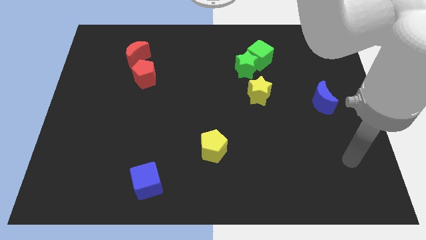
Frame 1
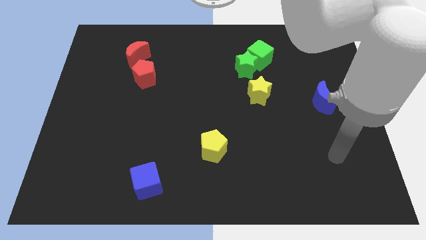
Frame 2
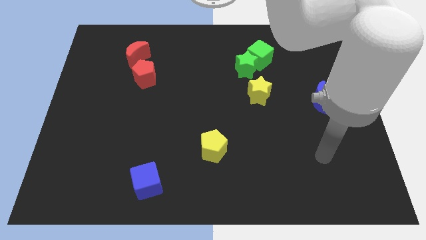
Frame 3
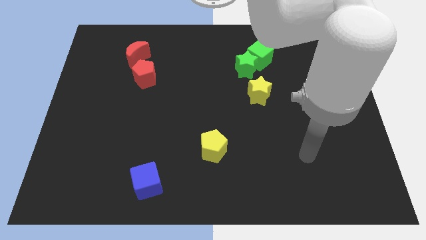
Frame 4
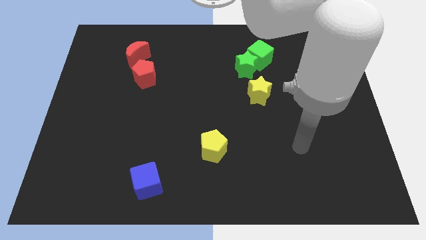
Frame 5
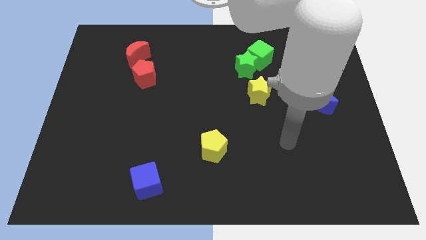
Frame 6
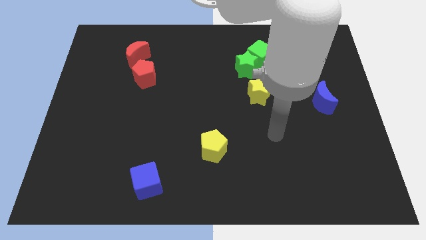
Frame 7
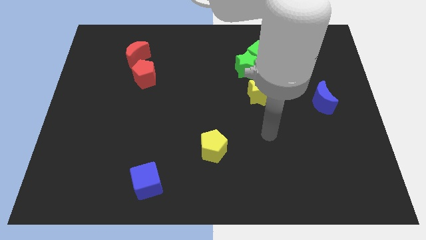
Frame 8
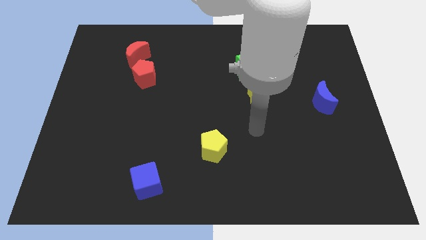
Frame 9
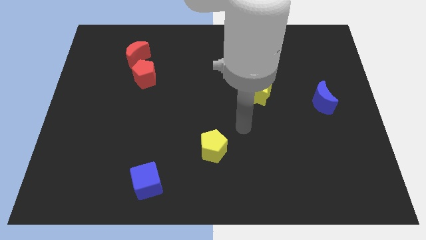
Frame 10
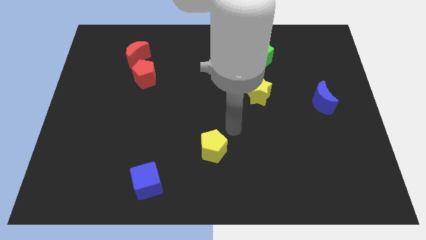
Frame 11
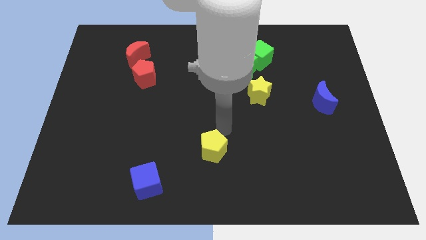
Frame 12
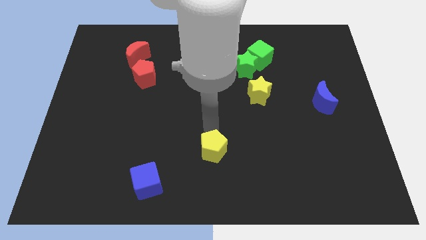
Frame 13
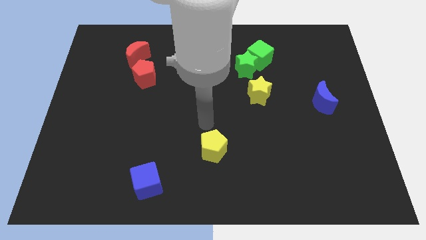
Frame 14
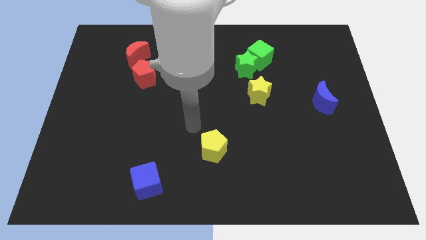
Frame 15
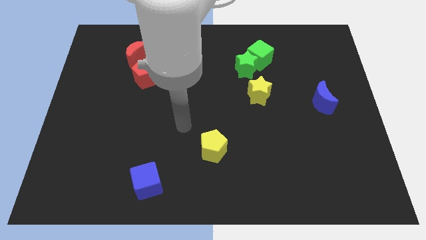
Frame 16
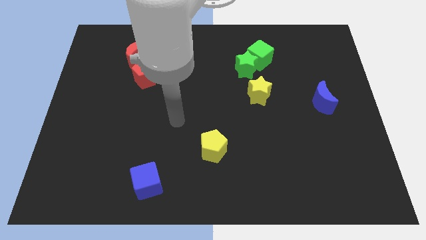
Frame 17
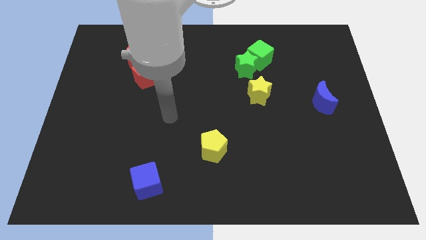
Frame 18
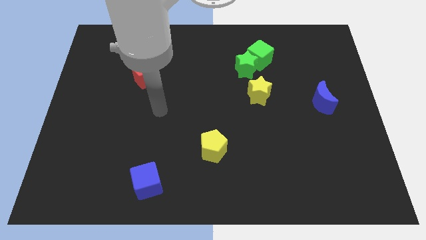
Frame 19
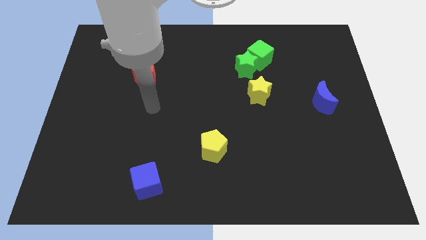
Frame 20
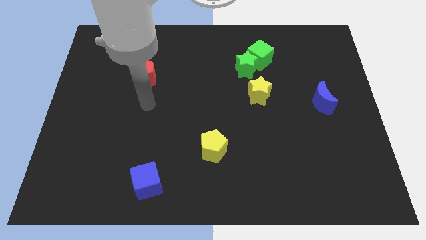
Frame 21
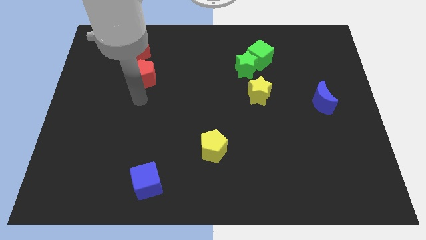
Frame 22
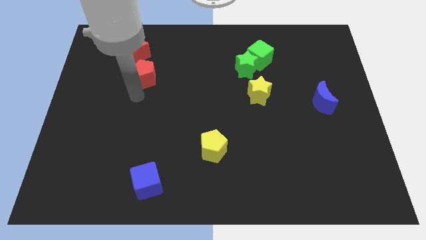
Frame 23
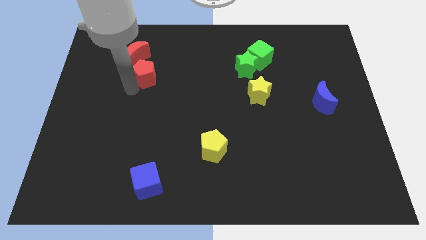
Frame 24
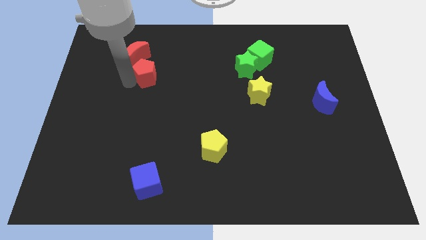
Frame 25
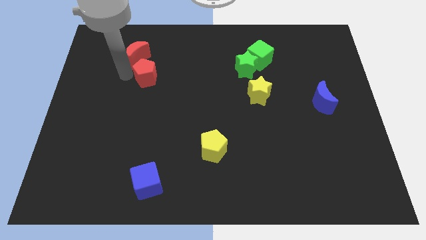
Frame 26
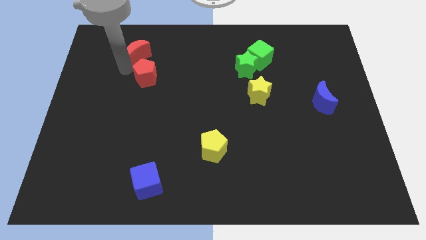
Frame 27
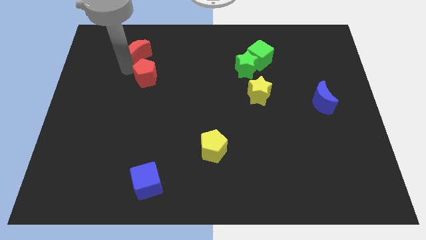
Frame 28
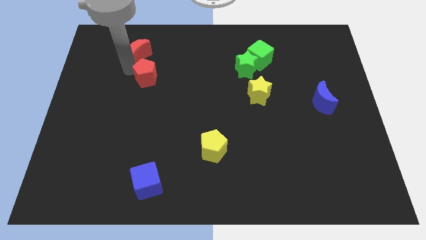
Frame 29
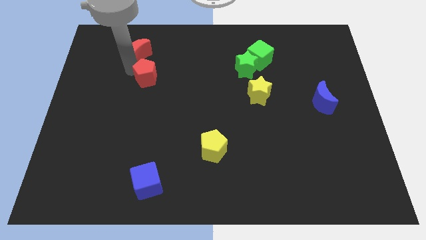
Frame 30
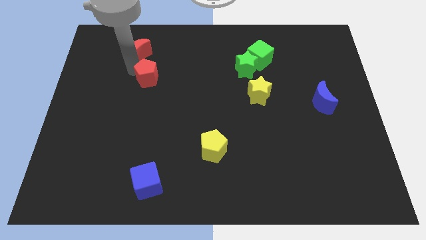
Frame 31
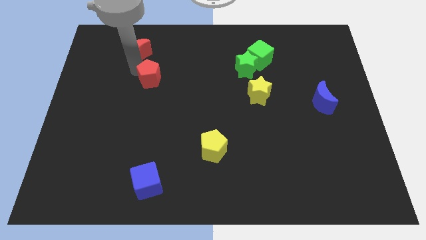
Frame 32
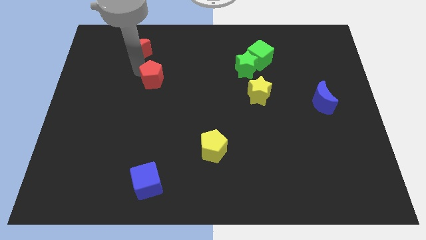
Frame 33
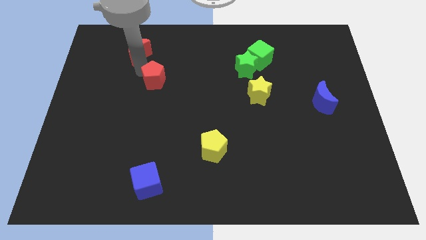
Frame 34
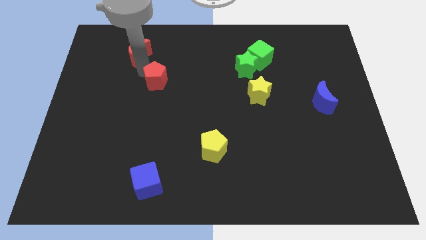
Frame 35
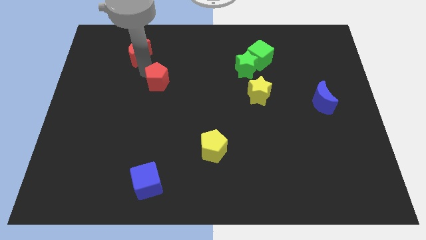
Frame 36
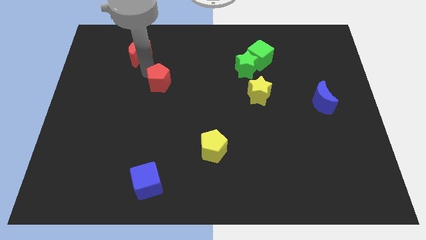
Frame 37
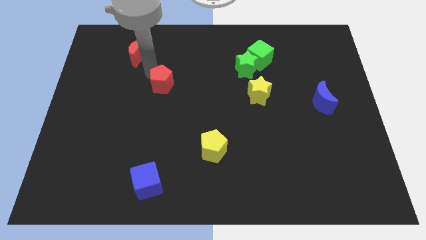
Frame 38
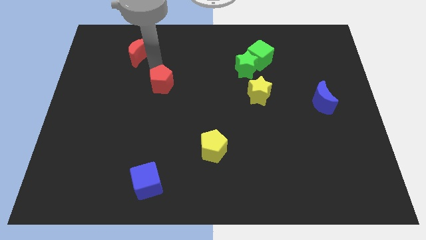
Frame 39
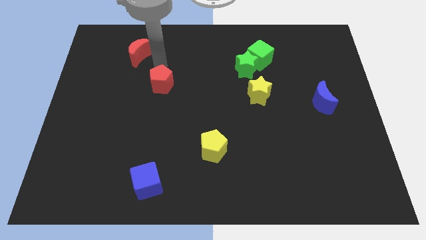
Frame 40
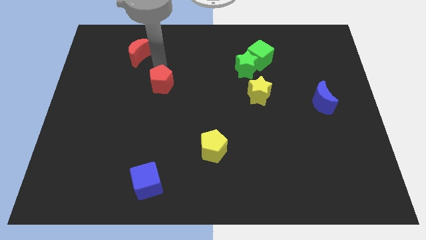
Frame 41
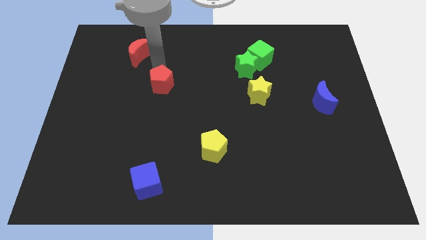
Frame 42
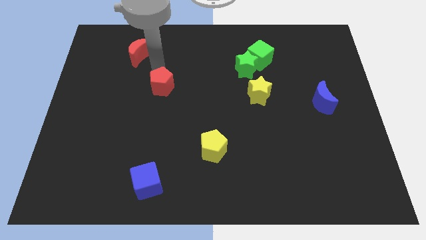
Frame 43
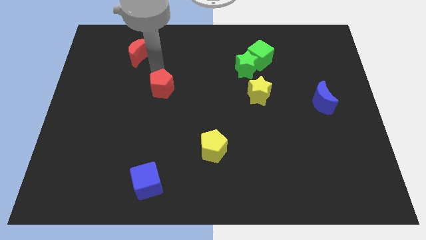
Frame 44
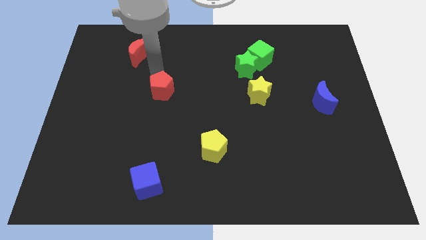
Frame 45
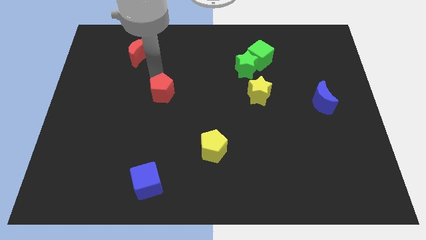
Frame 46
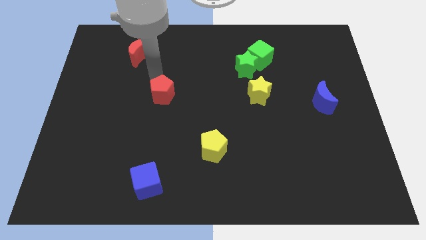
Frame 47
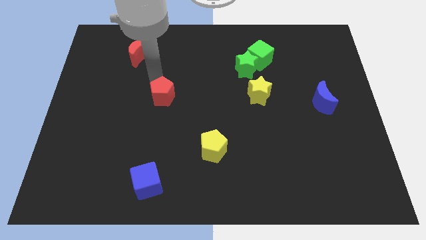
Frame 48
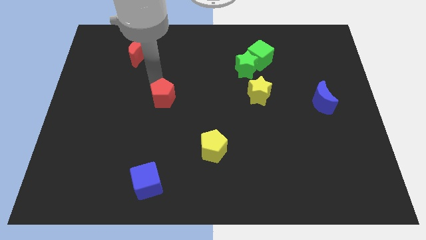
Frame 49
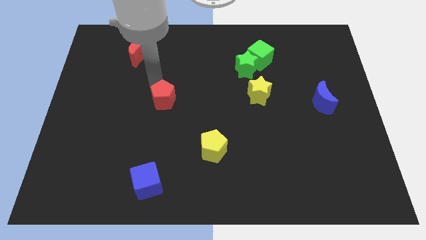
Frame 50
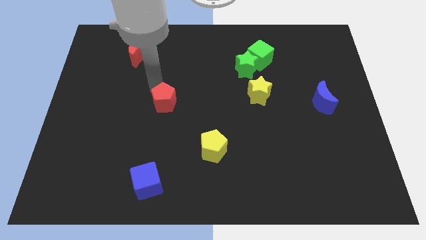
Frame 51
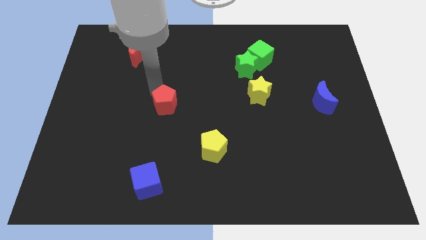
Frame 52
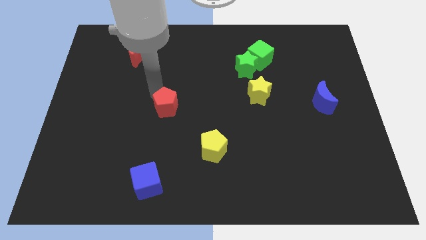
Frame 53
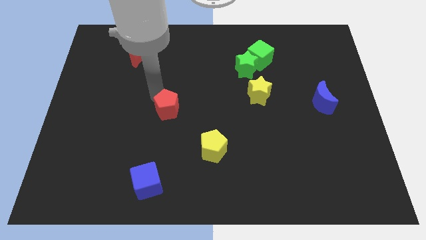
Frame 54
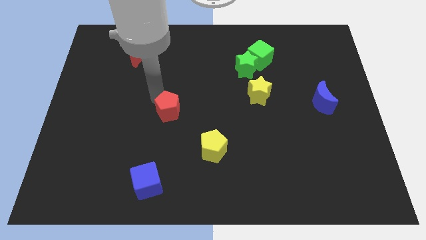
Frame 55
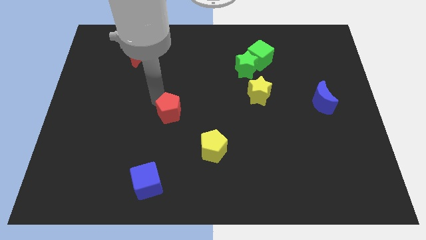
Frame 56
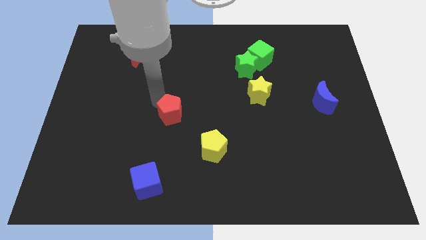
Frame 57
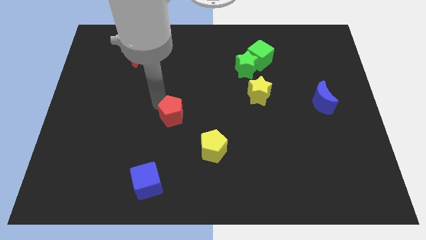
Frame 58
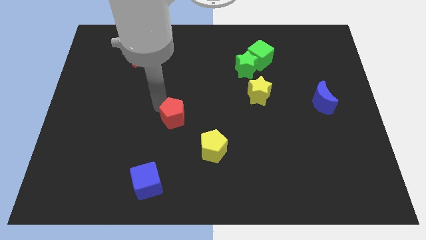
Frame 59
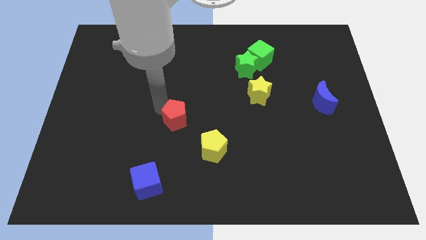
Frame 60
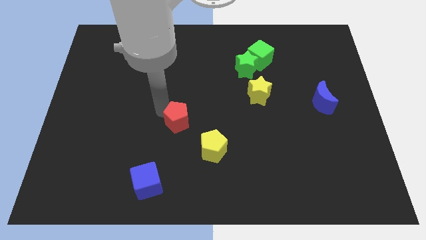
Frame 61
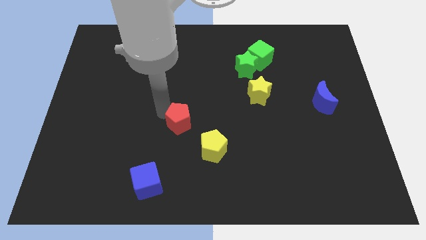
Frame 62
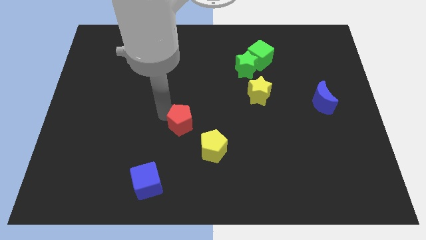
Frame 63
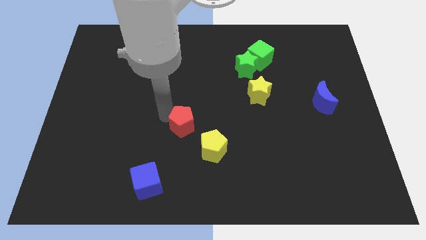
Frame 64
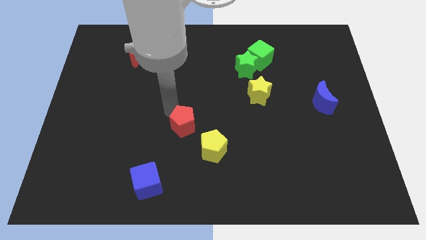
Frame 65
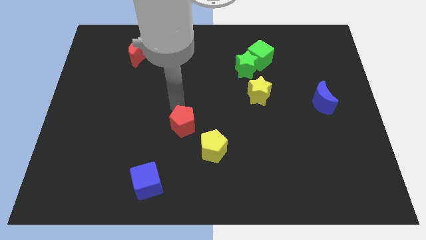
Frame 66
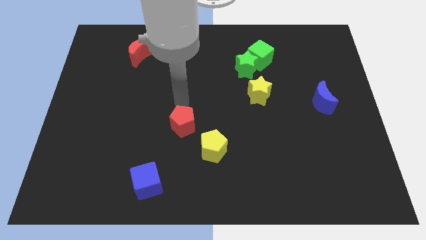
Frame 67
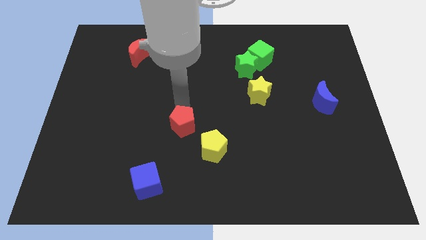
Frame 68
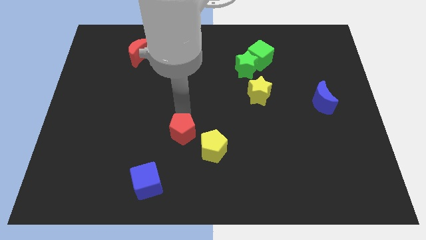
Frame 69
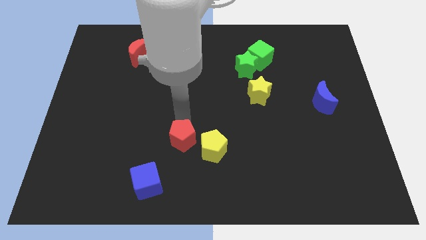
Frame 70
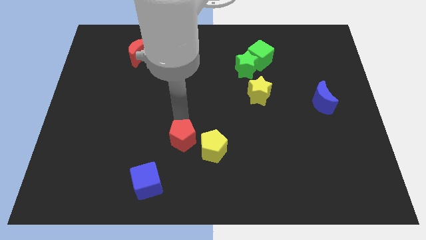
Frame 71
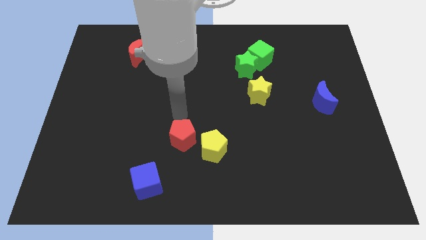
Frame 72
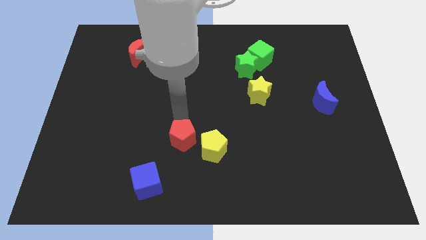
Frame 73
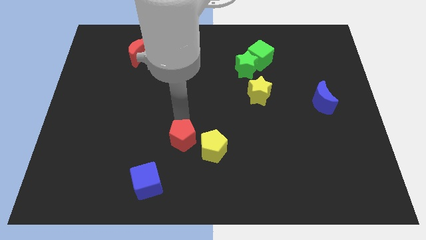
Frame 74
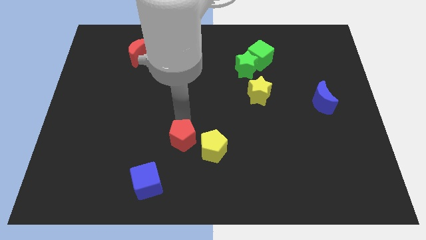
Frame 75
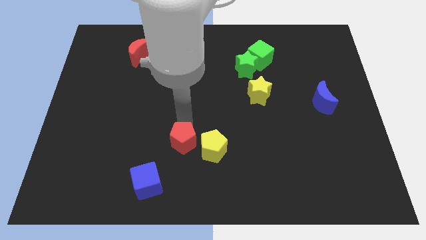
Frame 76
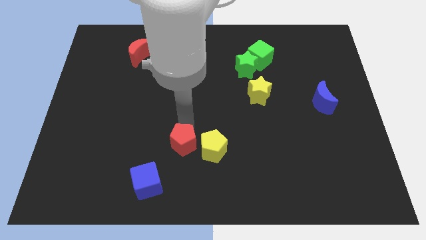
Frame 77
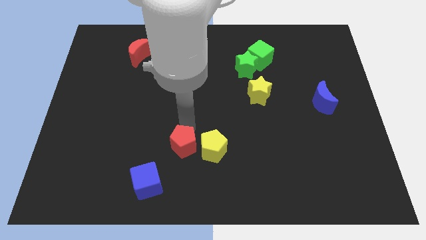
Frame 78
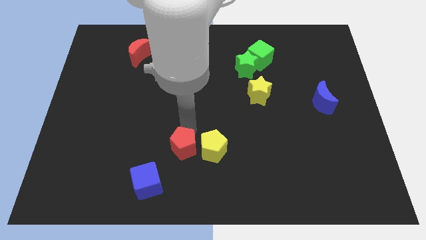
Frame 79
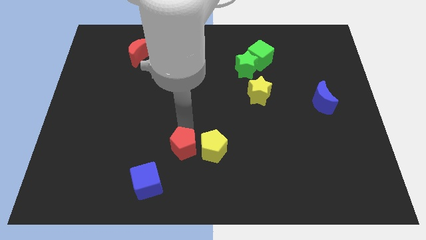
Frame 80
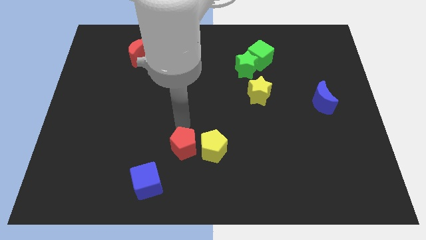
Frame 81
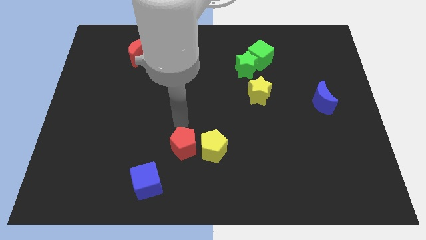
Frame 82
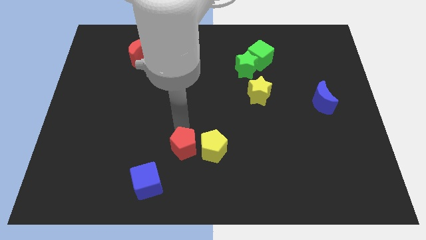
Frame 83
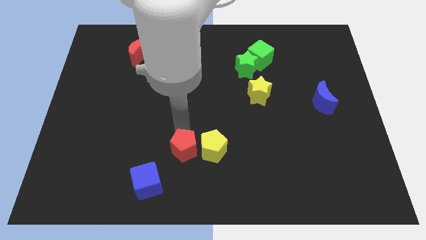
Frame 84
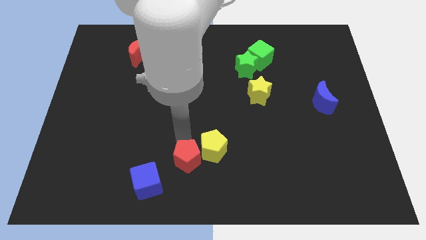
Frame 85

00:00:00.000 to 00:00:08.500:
move the red pentagon to the bottom side
